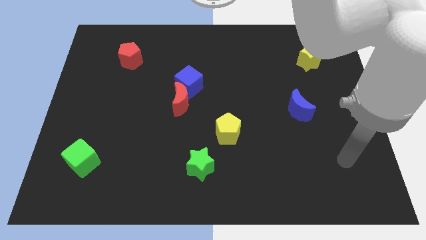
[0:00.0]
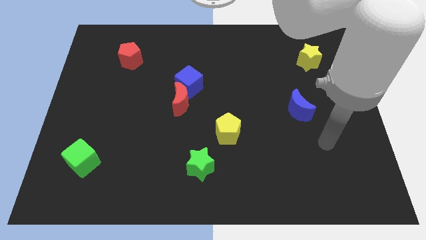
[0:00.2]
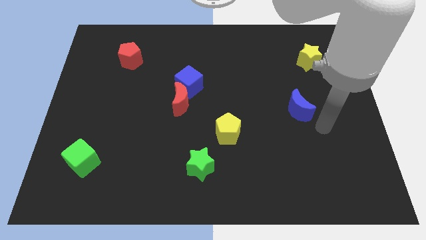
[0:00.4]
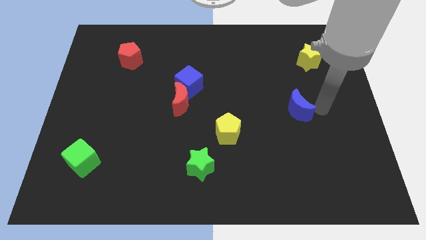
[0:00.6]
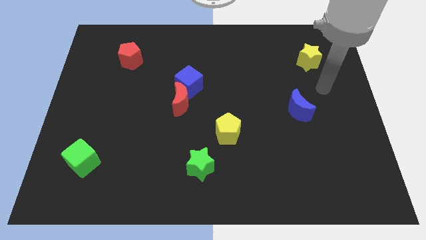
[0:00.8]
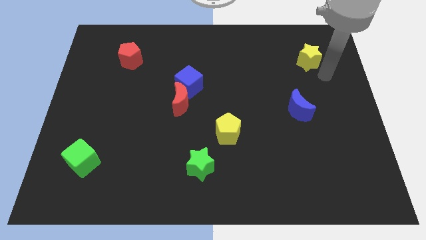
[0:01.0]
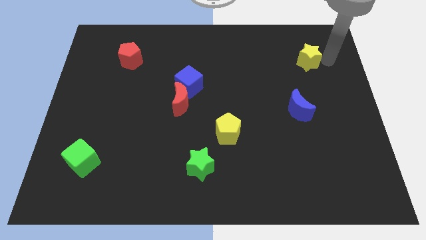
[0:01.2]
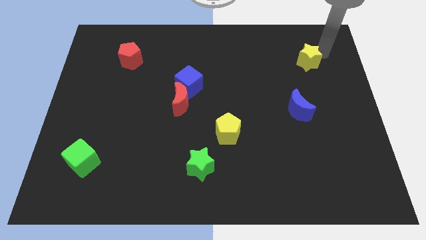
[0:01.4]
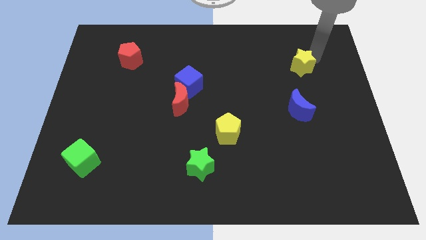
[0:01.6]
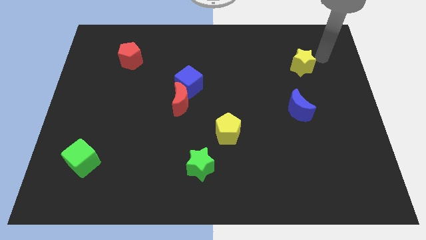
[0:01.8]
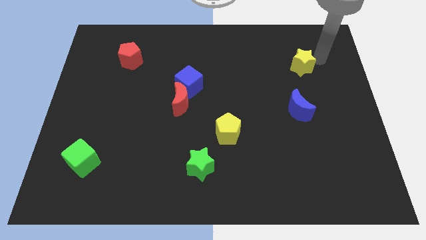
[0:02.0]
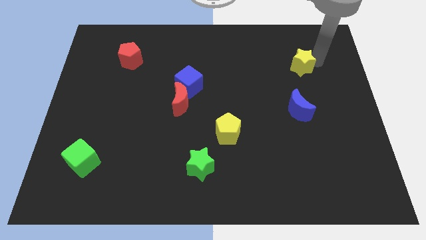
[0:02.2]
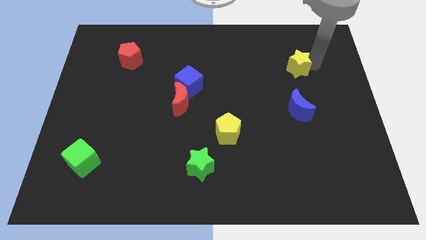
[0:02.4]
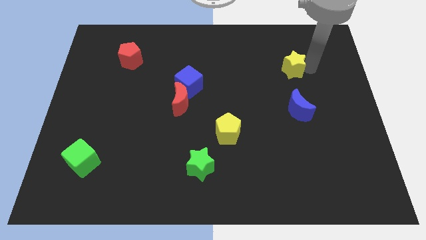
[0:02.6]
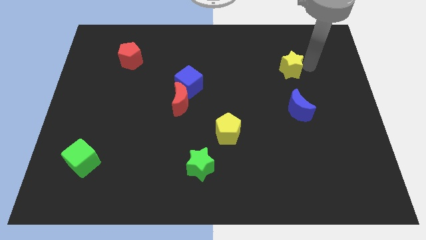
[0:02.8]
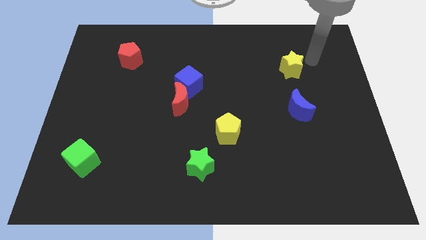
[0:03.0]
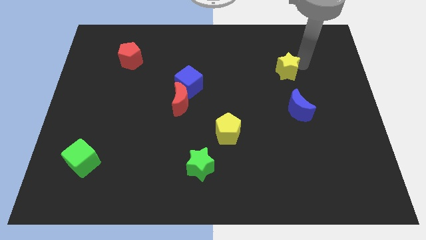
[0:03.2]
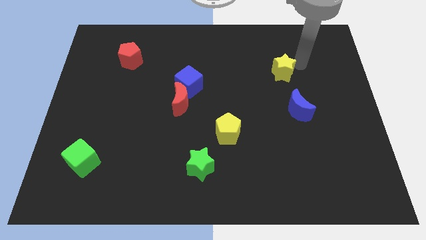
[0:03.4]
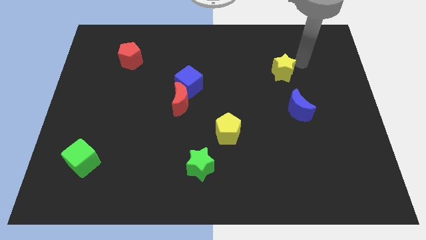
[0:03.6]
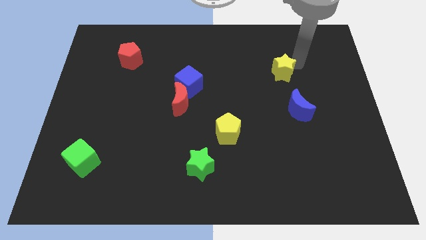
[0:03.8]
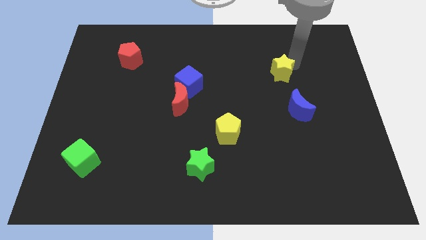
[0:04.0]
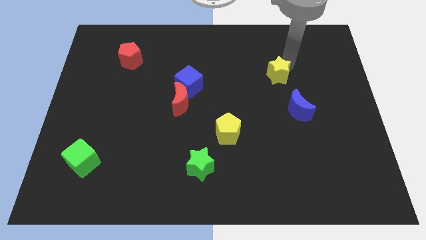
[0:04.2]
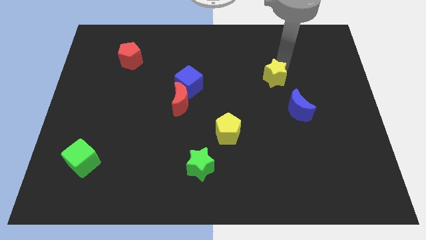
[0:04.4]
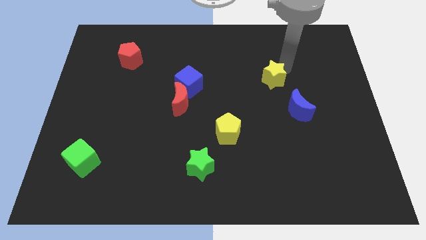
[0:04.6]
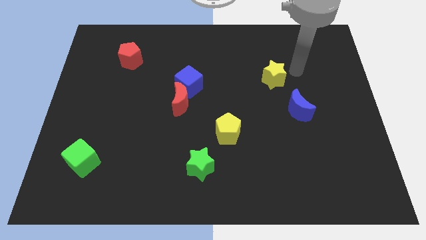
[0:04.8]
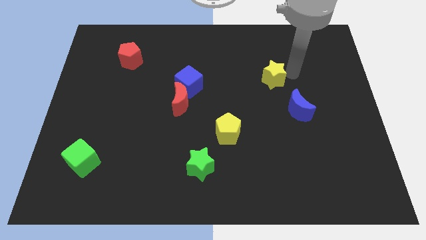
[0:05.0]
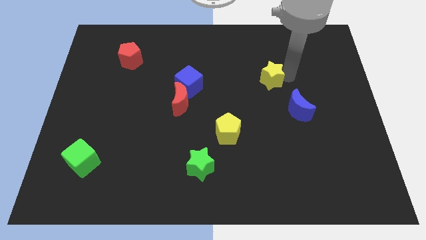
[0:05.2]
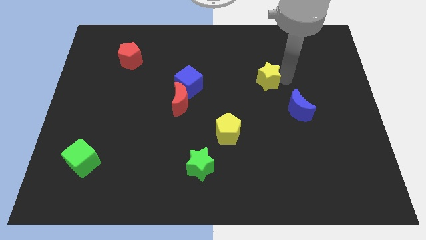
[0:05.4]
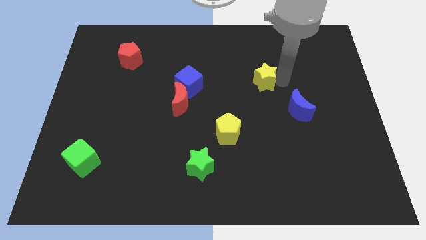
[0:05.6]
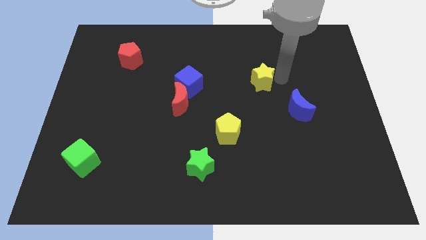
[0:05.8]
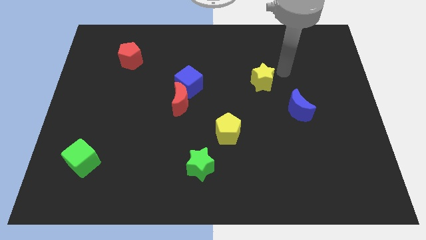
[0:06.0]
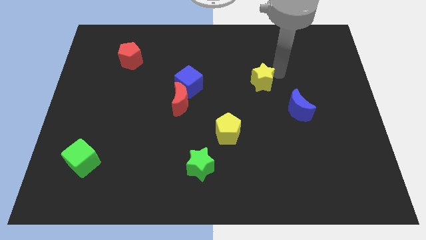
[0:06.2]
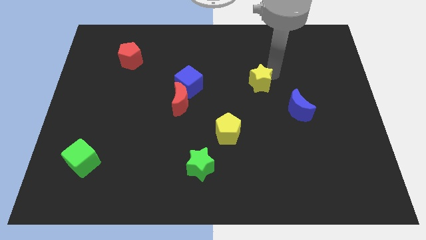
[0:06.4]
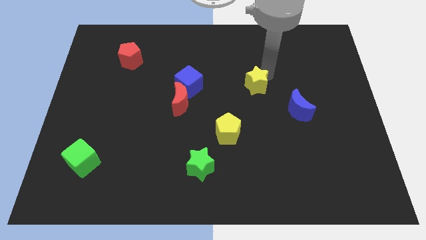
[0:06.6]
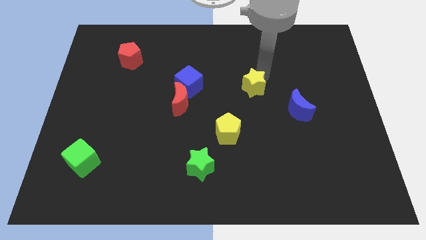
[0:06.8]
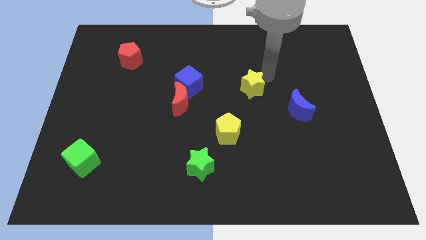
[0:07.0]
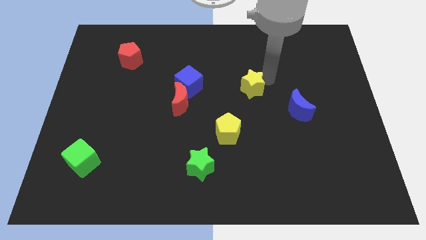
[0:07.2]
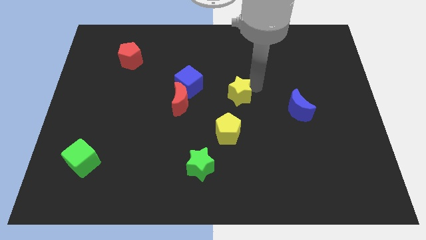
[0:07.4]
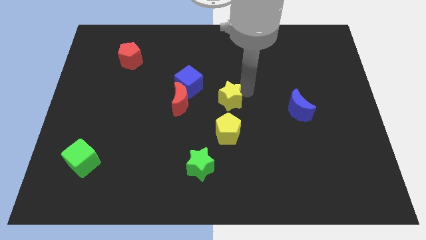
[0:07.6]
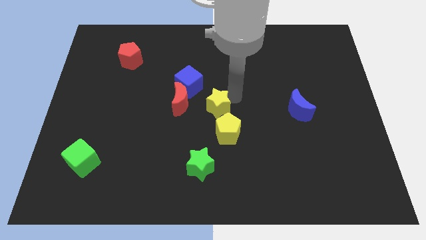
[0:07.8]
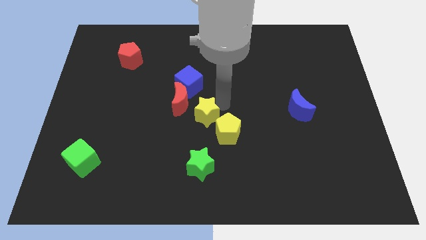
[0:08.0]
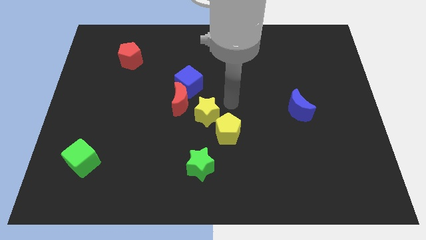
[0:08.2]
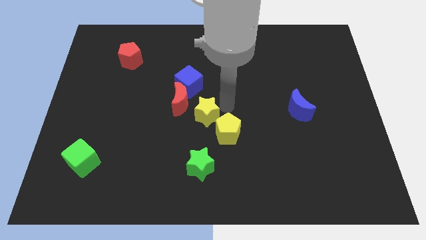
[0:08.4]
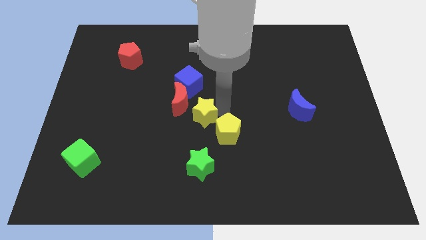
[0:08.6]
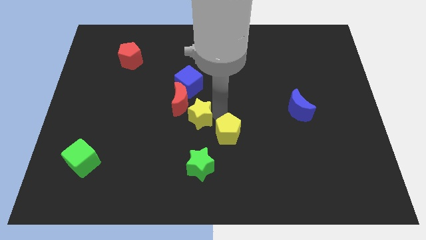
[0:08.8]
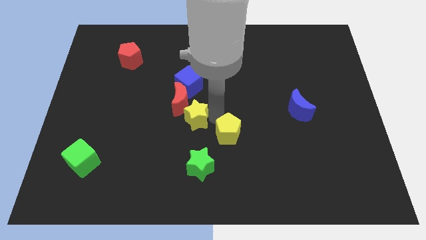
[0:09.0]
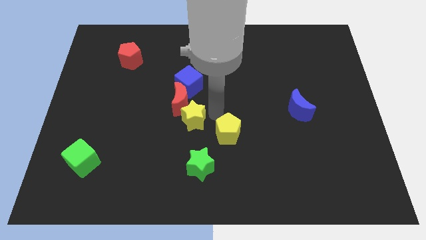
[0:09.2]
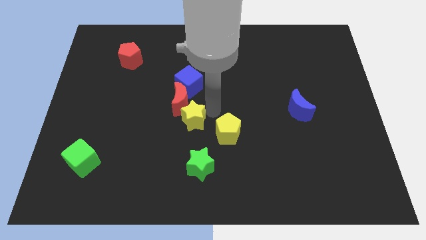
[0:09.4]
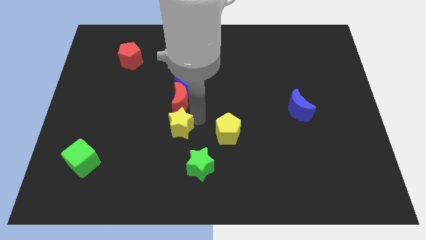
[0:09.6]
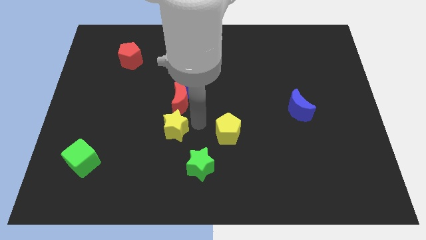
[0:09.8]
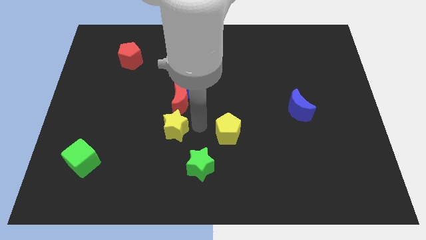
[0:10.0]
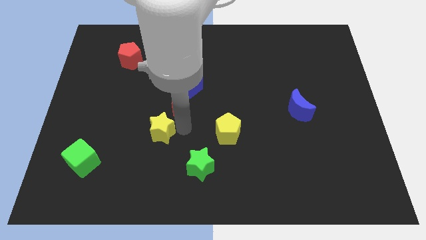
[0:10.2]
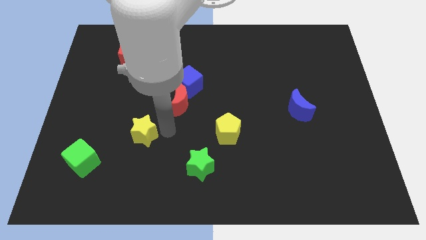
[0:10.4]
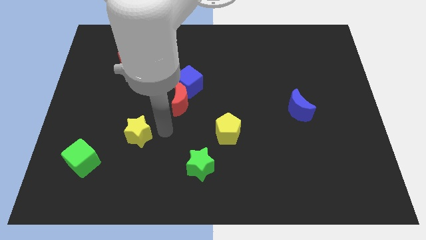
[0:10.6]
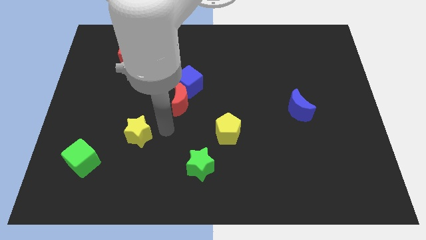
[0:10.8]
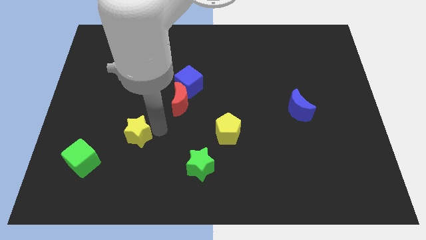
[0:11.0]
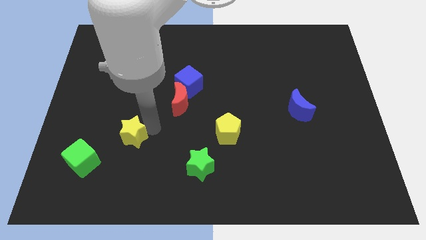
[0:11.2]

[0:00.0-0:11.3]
put the yellow star to the top right of the green cube

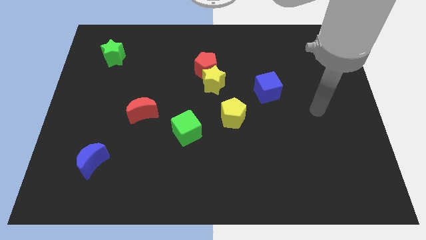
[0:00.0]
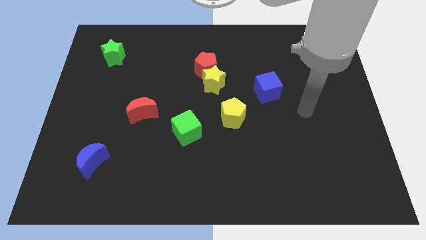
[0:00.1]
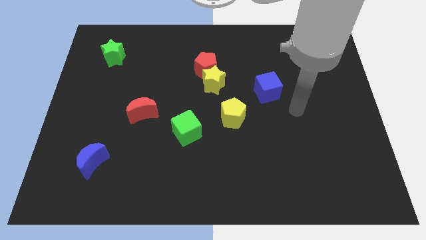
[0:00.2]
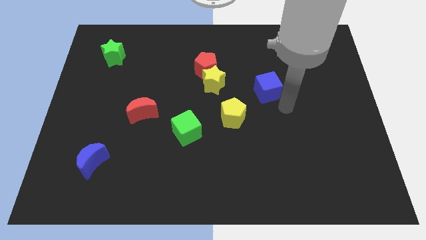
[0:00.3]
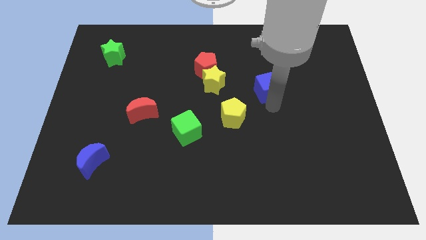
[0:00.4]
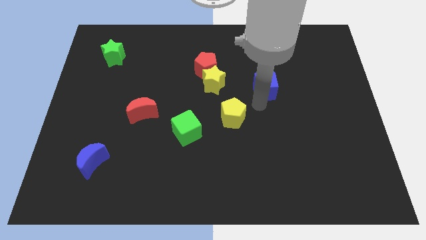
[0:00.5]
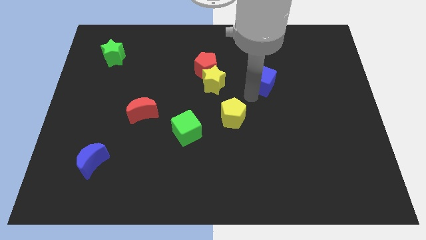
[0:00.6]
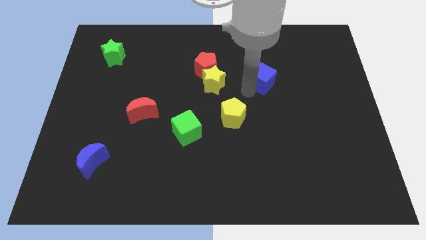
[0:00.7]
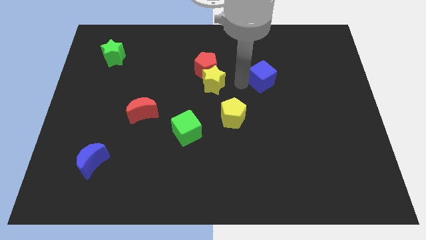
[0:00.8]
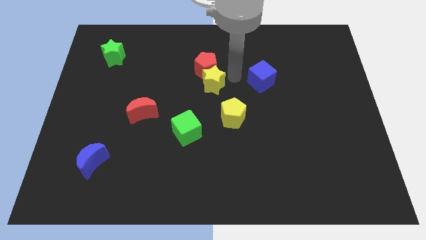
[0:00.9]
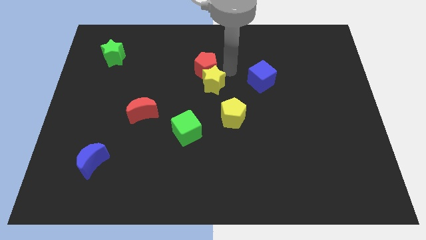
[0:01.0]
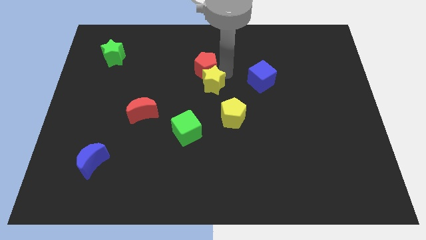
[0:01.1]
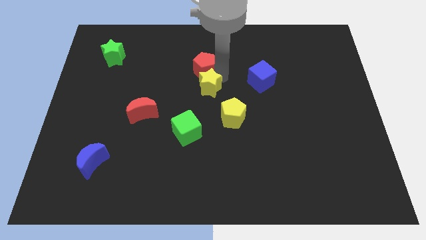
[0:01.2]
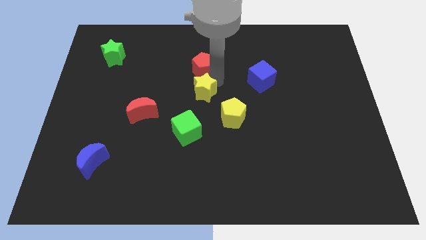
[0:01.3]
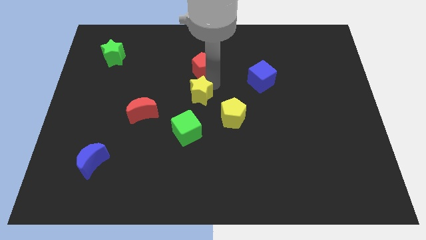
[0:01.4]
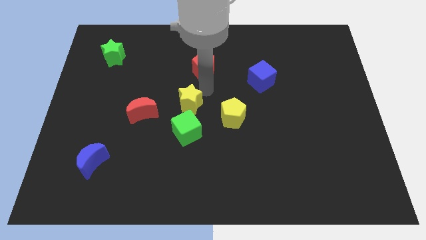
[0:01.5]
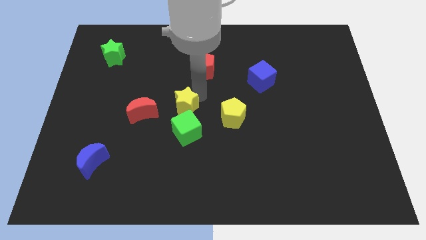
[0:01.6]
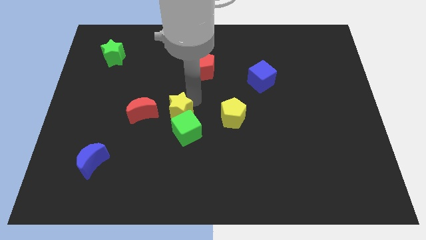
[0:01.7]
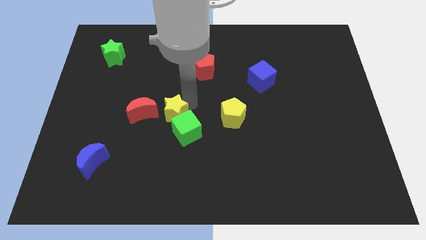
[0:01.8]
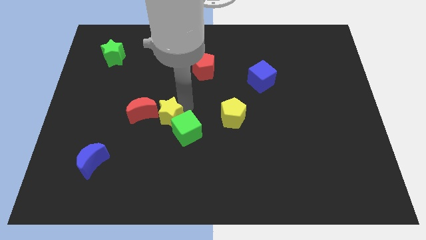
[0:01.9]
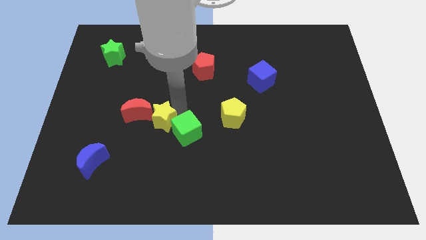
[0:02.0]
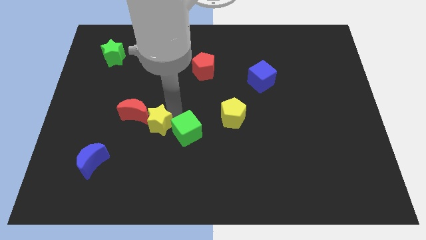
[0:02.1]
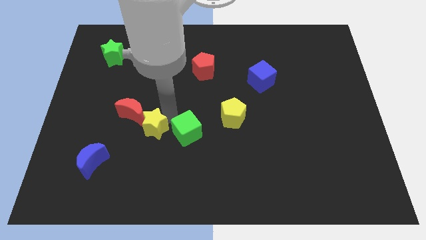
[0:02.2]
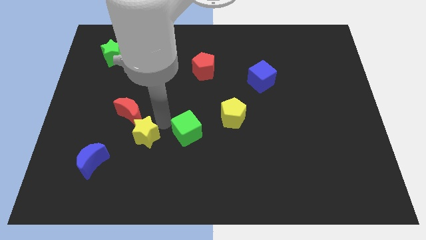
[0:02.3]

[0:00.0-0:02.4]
move the yellow star to the top right side of the blue moon
